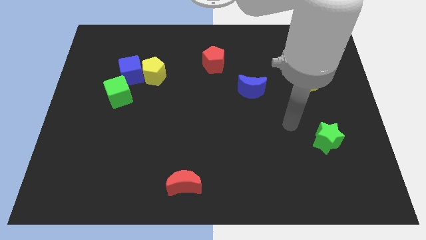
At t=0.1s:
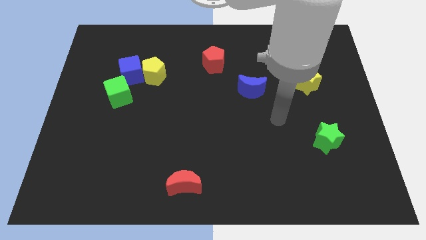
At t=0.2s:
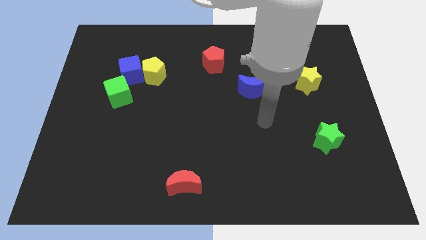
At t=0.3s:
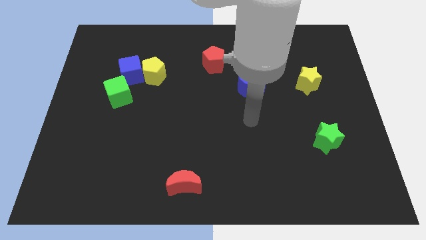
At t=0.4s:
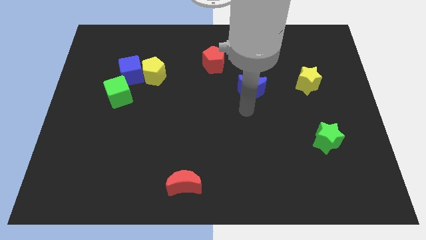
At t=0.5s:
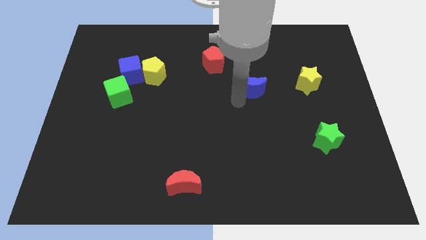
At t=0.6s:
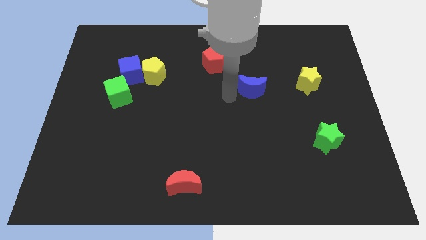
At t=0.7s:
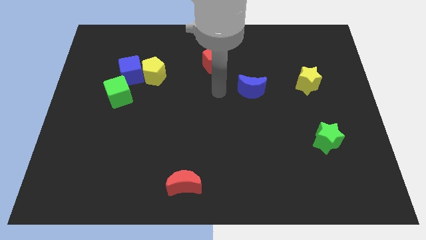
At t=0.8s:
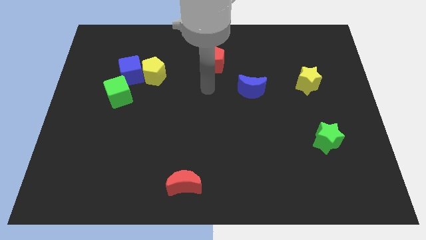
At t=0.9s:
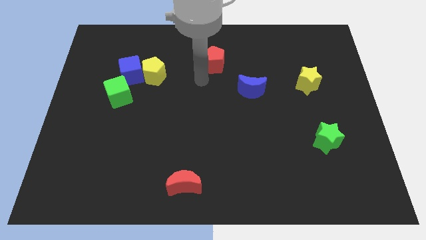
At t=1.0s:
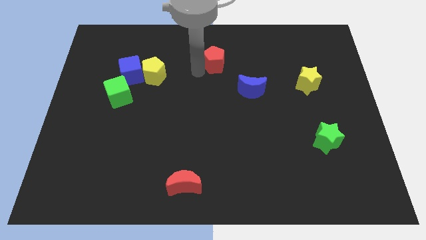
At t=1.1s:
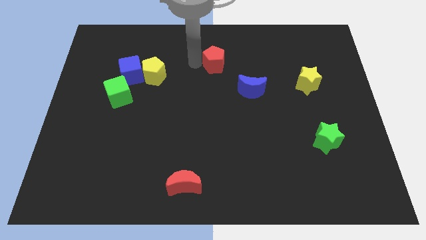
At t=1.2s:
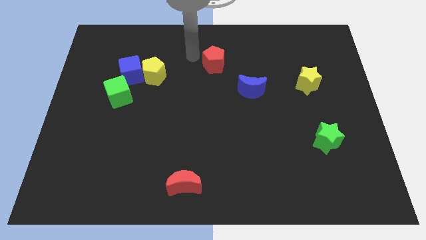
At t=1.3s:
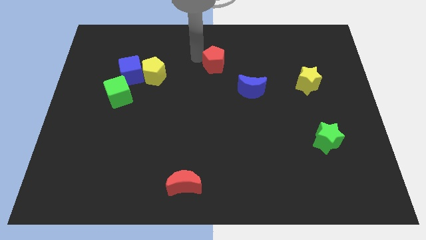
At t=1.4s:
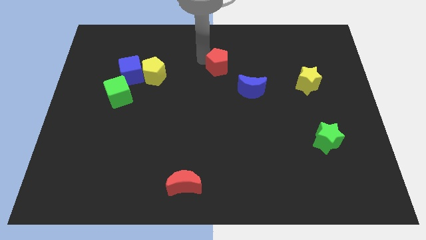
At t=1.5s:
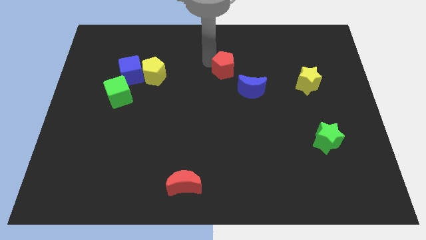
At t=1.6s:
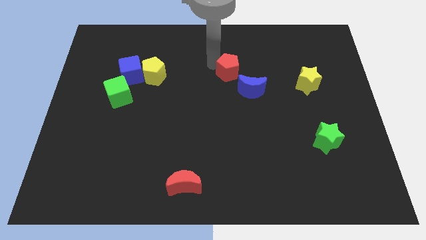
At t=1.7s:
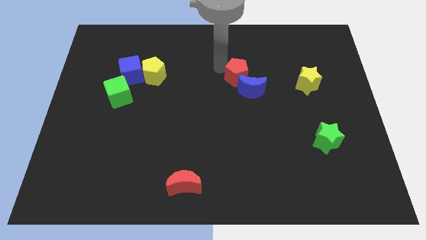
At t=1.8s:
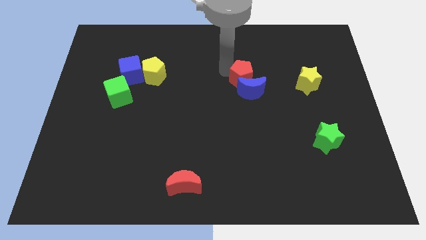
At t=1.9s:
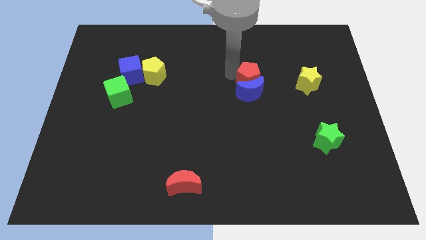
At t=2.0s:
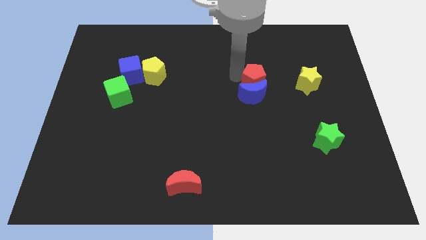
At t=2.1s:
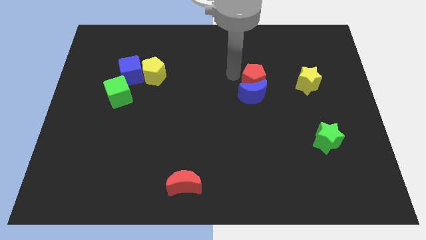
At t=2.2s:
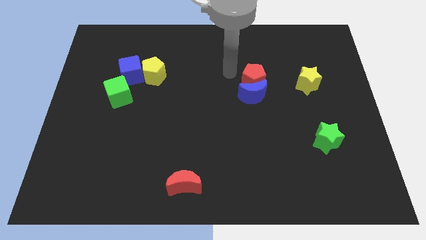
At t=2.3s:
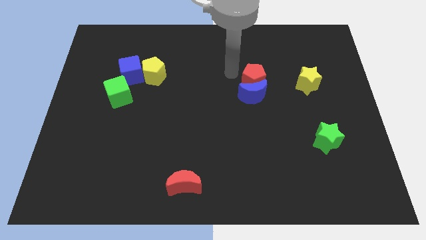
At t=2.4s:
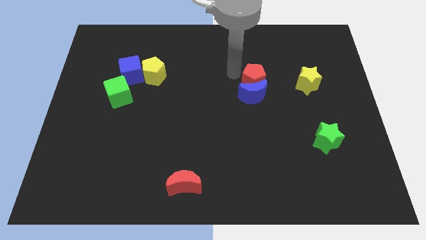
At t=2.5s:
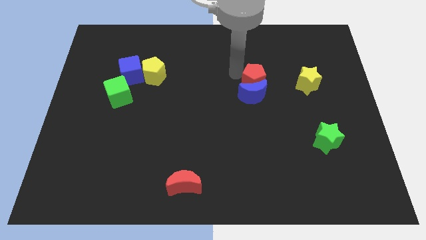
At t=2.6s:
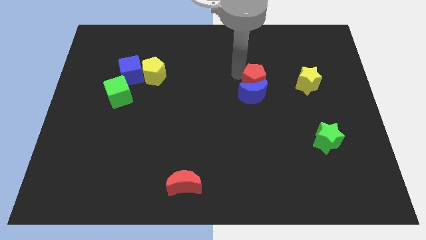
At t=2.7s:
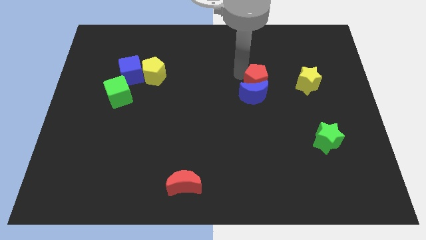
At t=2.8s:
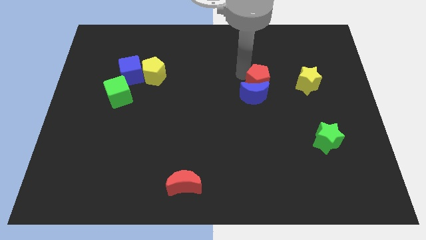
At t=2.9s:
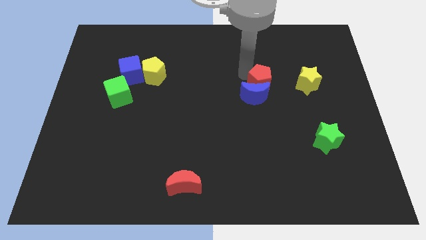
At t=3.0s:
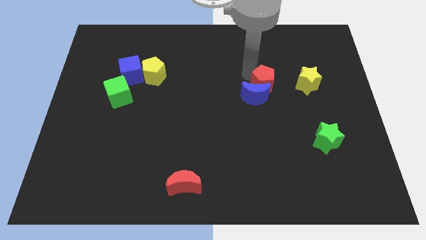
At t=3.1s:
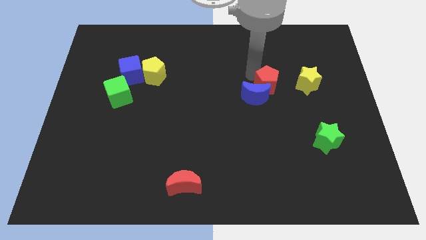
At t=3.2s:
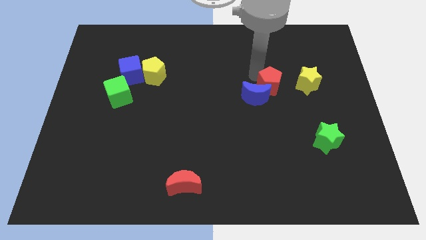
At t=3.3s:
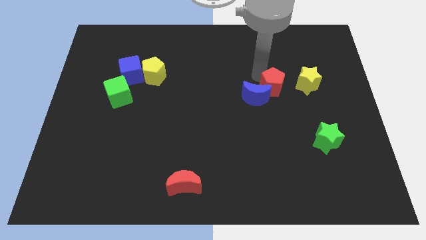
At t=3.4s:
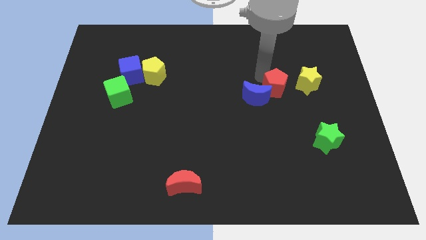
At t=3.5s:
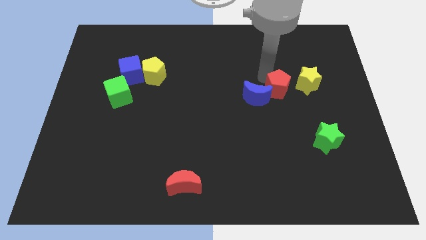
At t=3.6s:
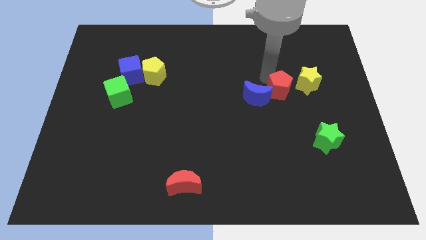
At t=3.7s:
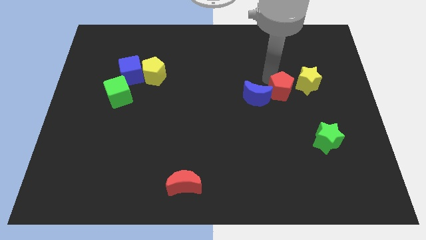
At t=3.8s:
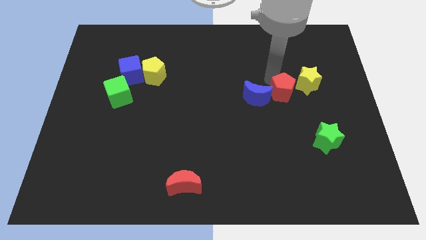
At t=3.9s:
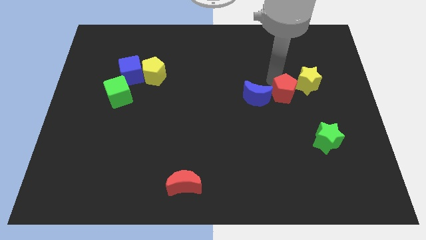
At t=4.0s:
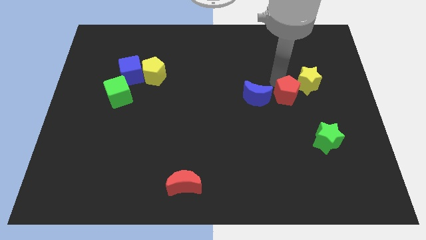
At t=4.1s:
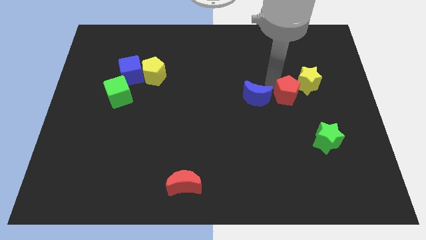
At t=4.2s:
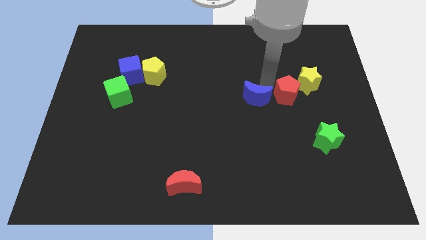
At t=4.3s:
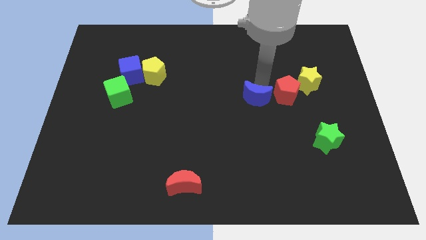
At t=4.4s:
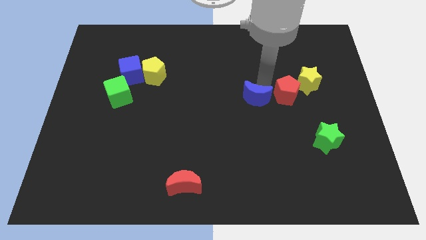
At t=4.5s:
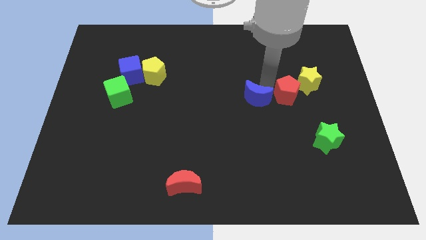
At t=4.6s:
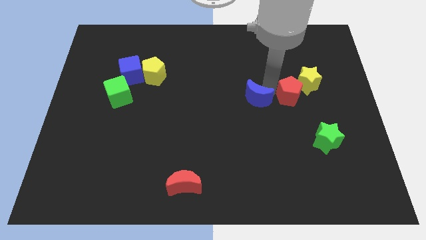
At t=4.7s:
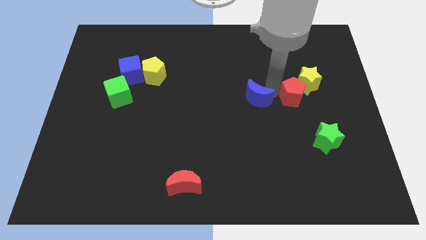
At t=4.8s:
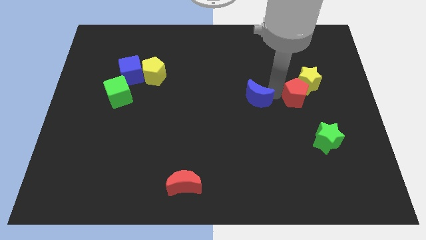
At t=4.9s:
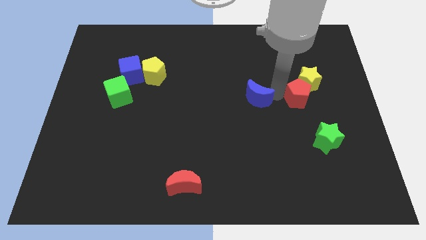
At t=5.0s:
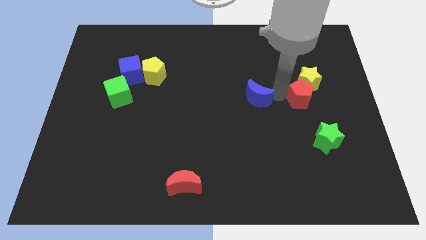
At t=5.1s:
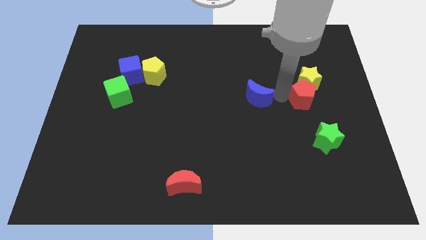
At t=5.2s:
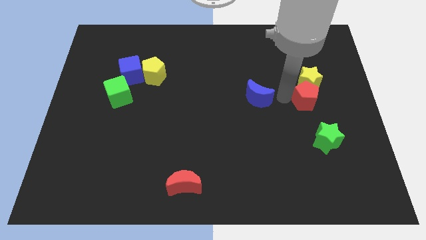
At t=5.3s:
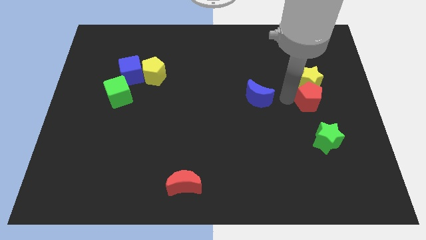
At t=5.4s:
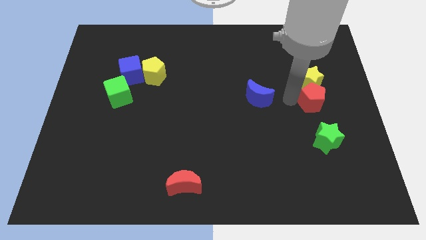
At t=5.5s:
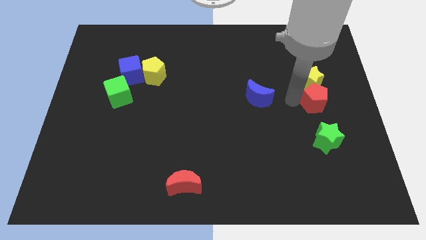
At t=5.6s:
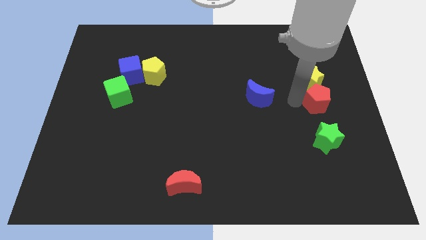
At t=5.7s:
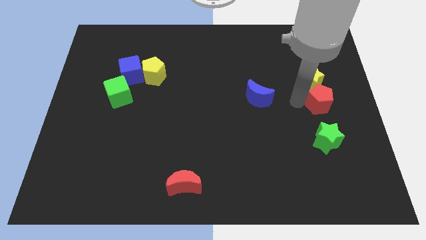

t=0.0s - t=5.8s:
push the red pentagon to the center right
